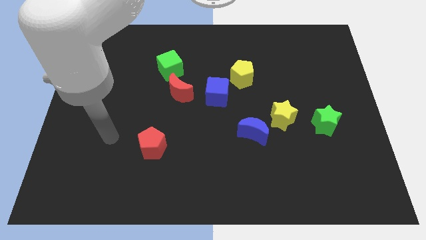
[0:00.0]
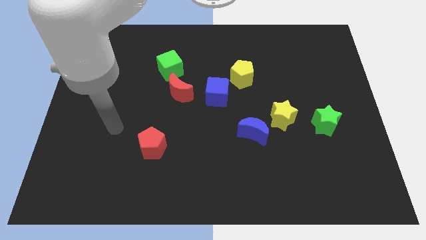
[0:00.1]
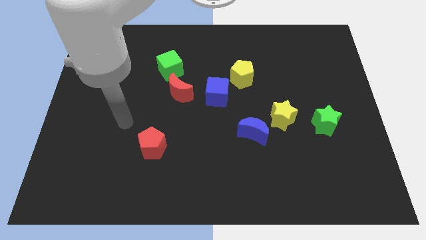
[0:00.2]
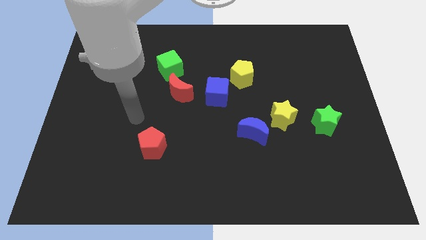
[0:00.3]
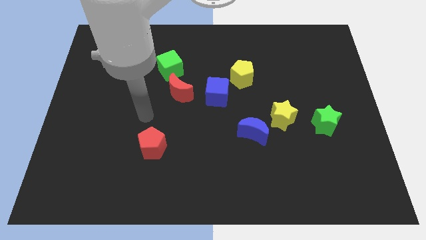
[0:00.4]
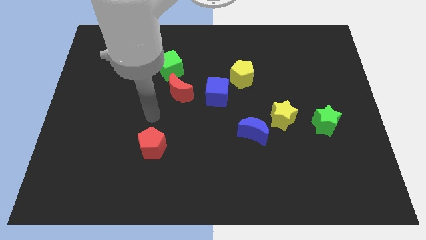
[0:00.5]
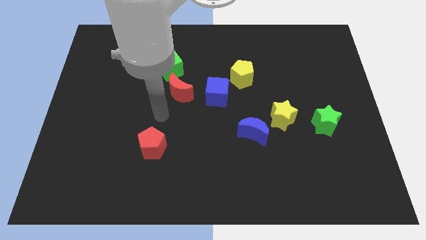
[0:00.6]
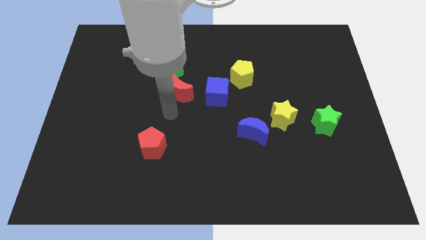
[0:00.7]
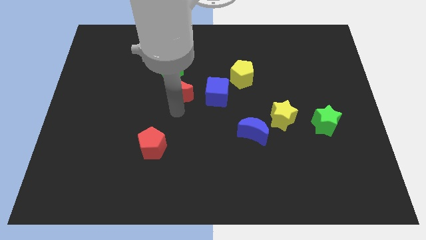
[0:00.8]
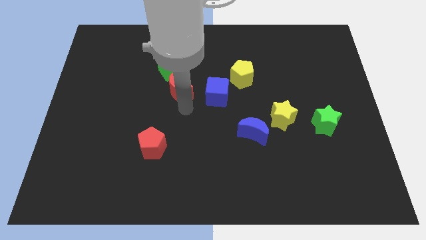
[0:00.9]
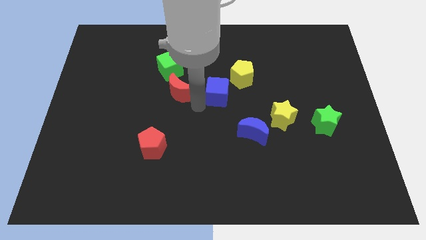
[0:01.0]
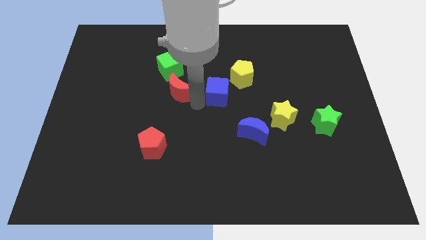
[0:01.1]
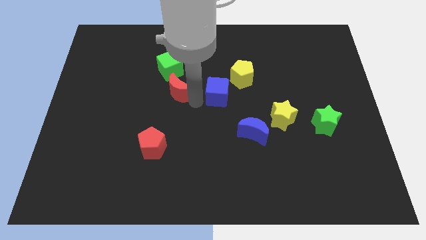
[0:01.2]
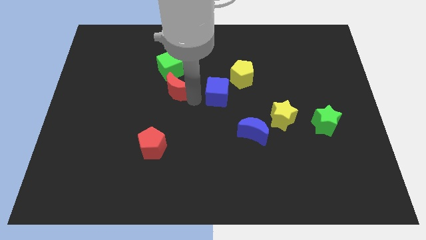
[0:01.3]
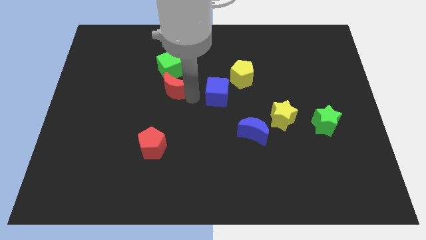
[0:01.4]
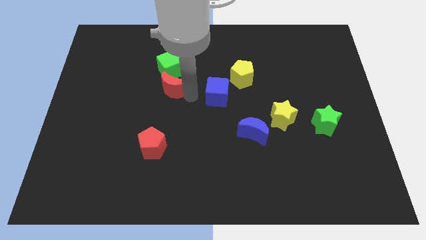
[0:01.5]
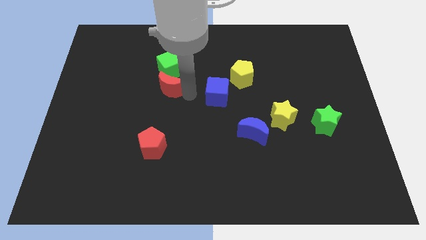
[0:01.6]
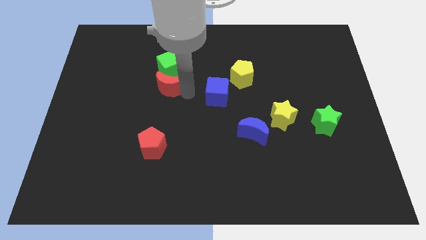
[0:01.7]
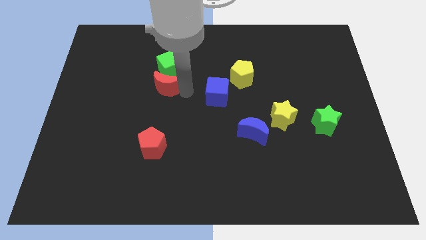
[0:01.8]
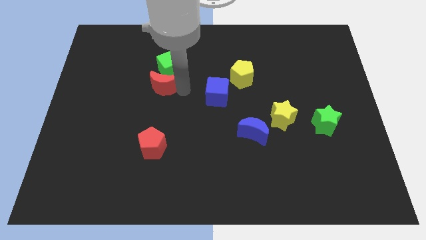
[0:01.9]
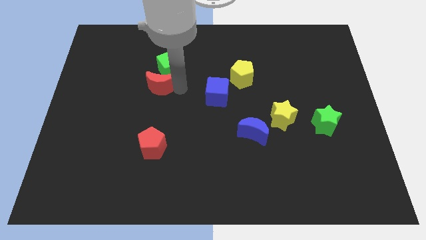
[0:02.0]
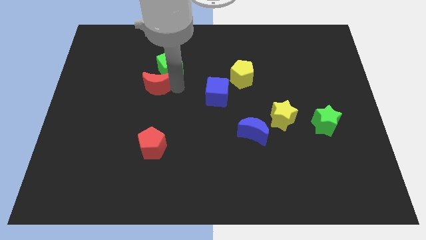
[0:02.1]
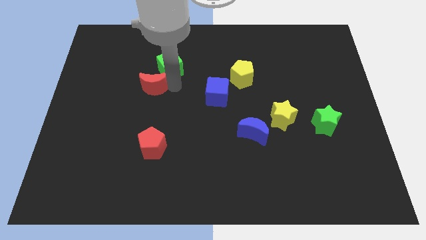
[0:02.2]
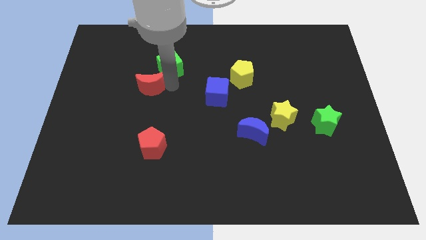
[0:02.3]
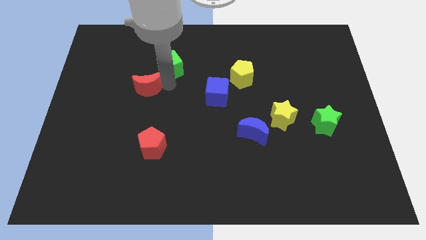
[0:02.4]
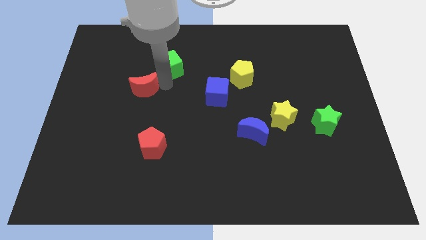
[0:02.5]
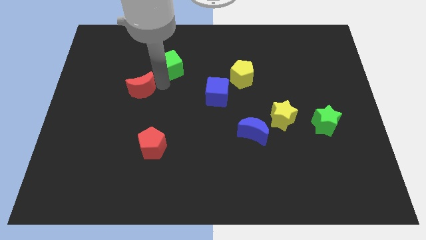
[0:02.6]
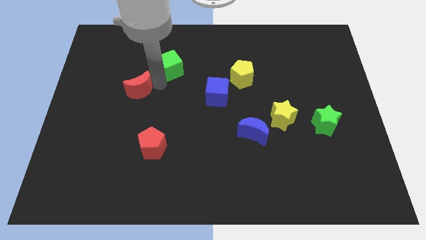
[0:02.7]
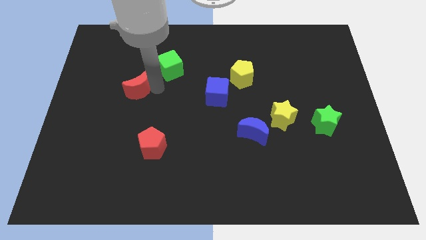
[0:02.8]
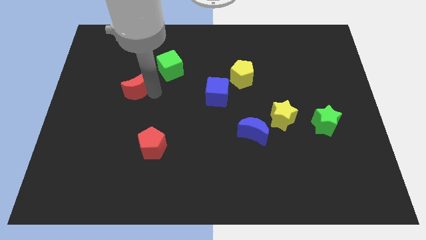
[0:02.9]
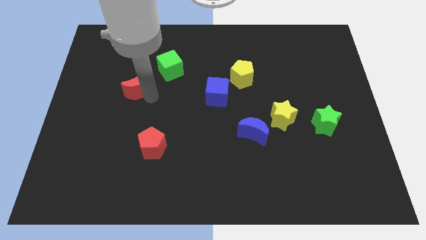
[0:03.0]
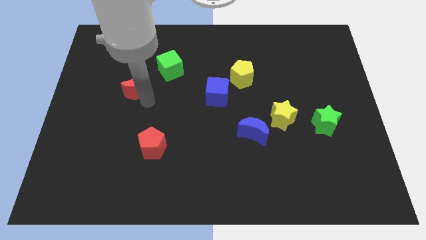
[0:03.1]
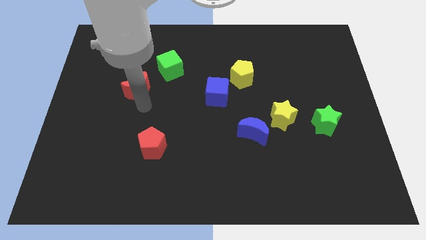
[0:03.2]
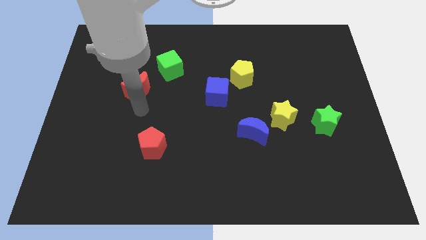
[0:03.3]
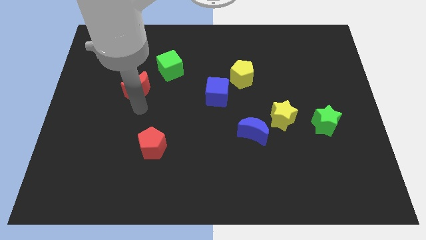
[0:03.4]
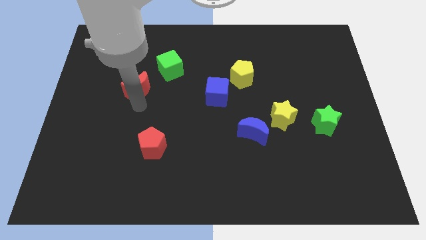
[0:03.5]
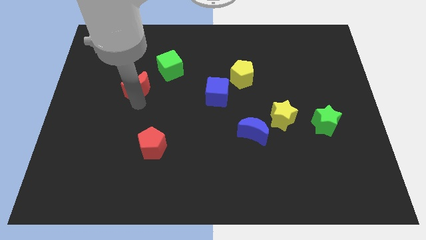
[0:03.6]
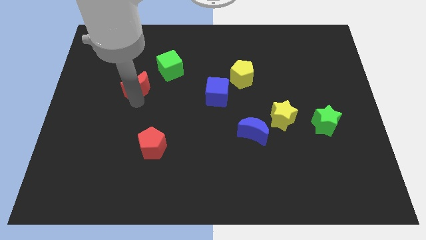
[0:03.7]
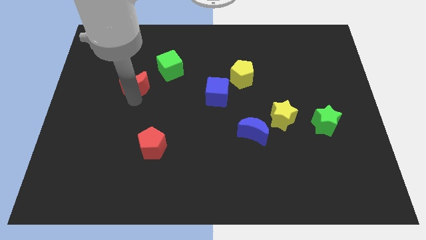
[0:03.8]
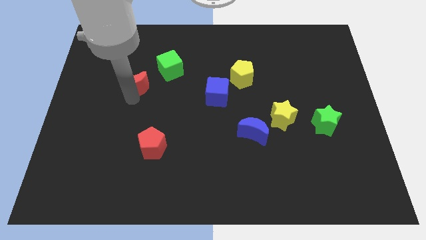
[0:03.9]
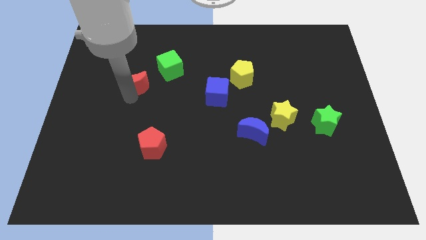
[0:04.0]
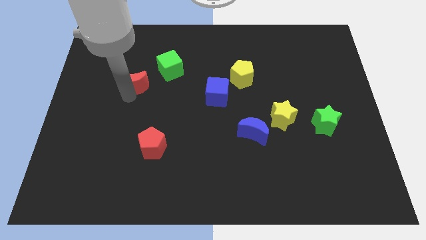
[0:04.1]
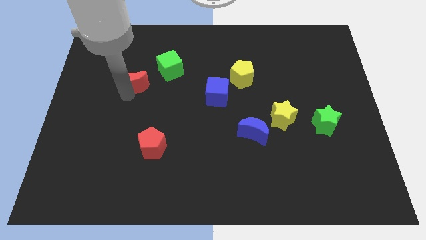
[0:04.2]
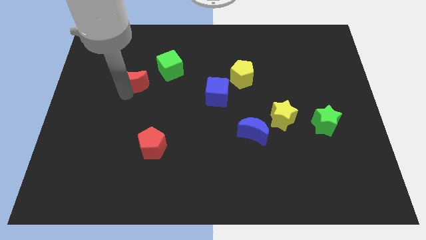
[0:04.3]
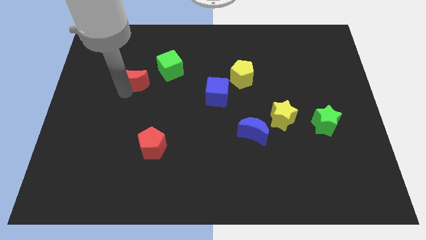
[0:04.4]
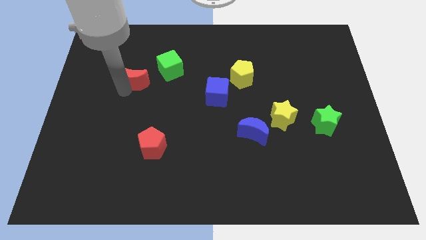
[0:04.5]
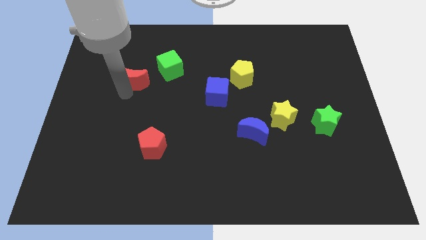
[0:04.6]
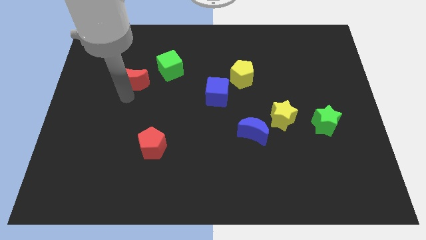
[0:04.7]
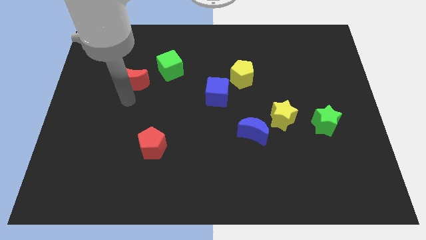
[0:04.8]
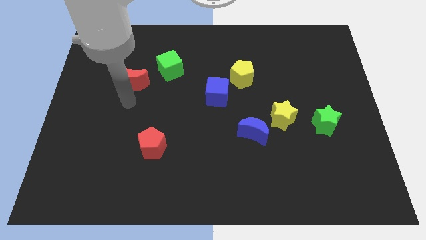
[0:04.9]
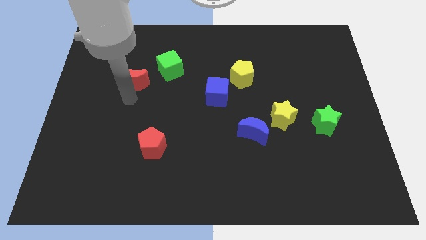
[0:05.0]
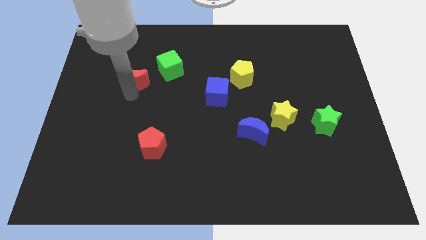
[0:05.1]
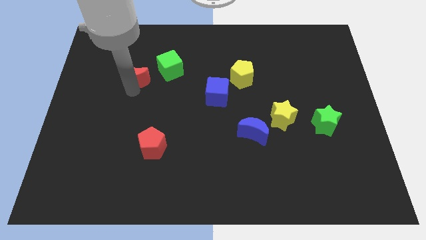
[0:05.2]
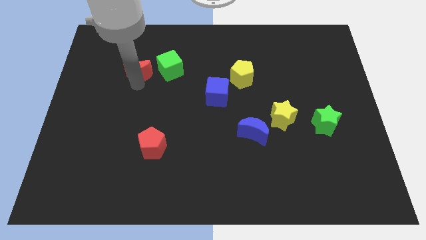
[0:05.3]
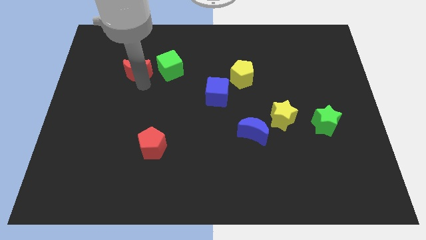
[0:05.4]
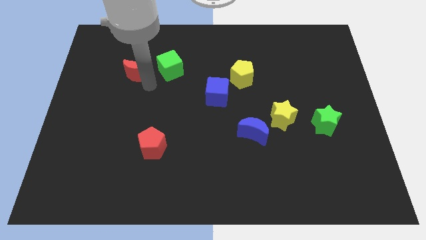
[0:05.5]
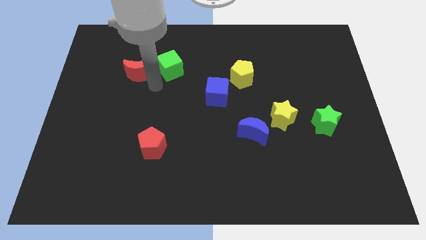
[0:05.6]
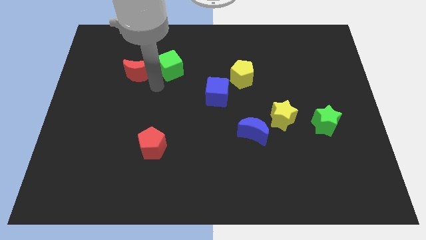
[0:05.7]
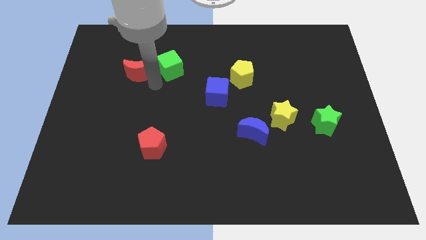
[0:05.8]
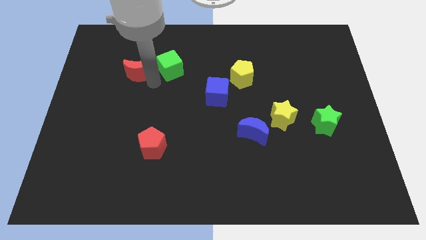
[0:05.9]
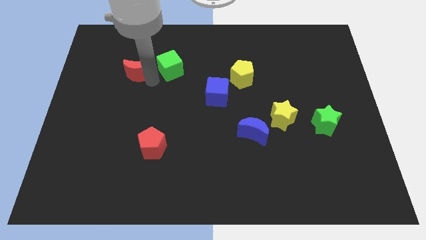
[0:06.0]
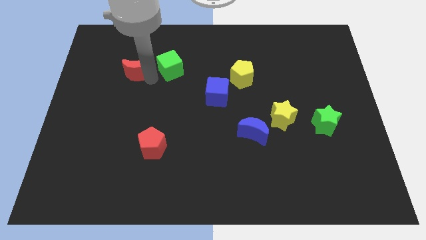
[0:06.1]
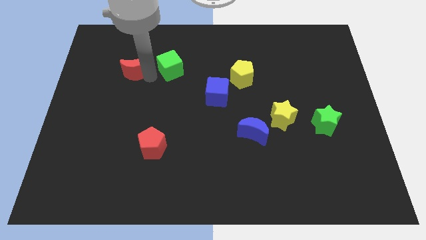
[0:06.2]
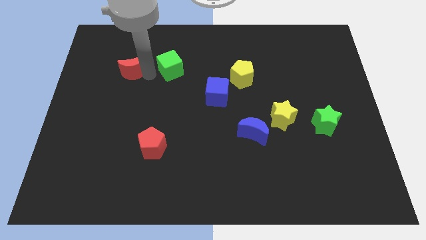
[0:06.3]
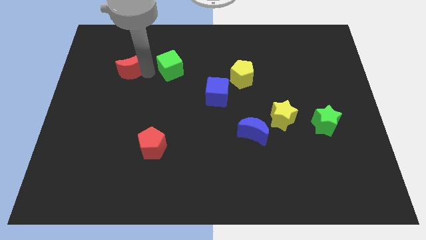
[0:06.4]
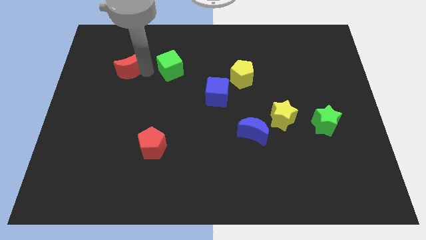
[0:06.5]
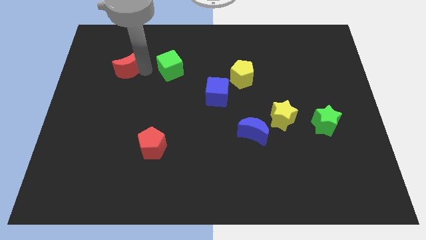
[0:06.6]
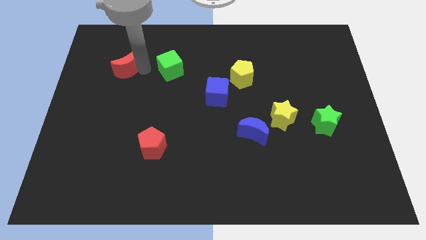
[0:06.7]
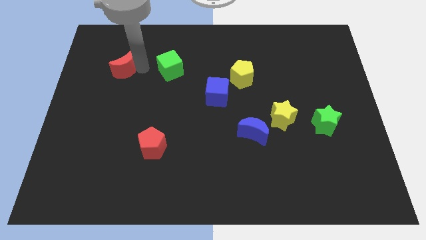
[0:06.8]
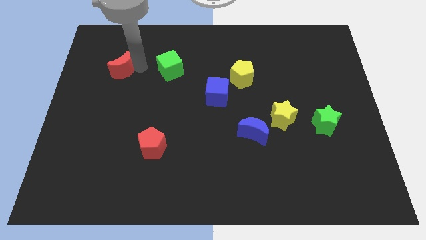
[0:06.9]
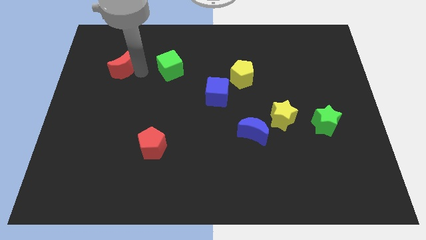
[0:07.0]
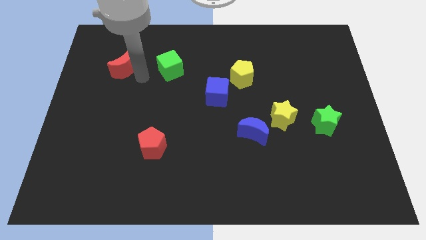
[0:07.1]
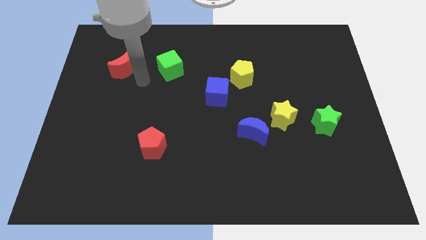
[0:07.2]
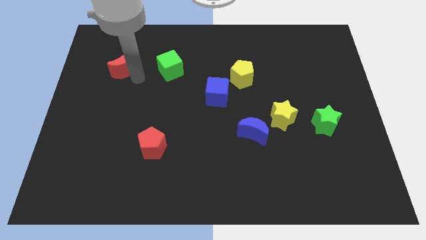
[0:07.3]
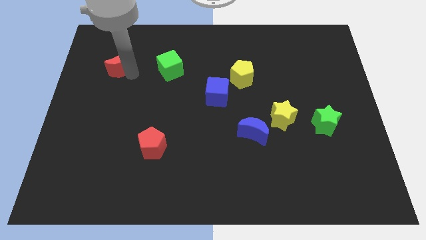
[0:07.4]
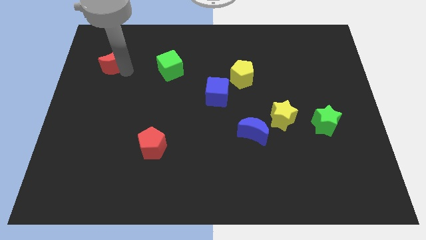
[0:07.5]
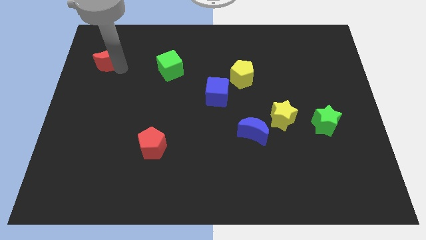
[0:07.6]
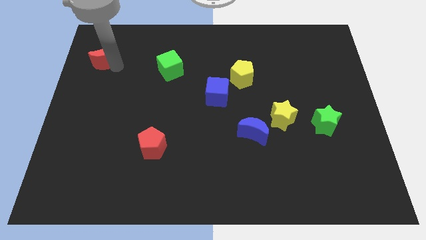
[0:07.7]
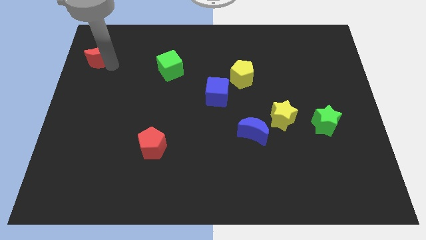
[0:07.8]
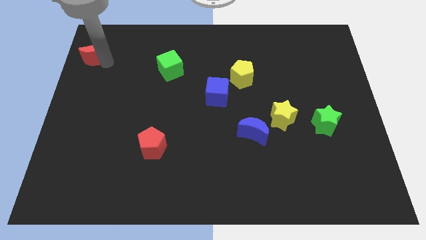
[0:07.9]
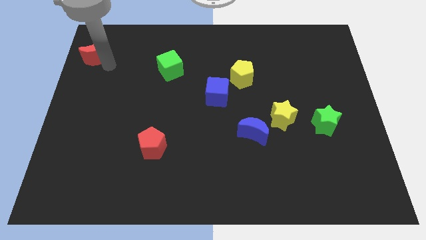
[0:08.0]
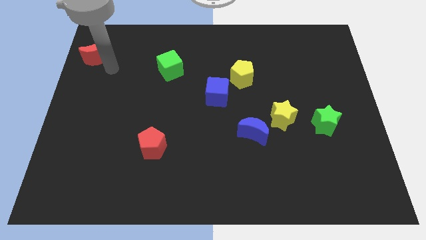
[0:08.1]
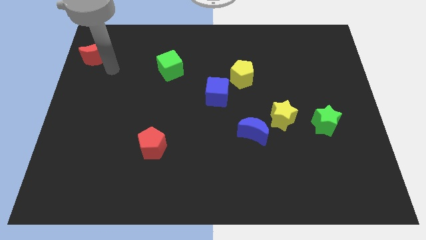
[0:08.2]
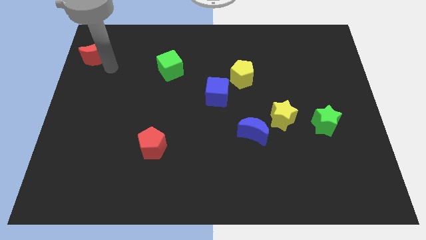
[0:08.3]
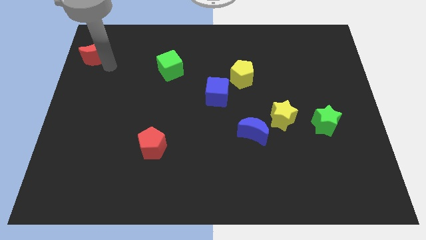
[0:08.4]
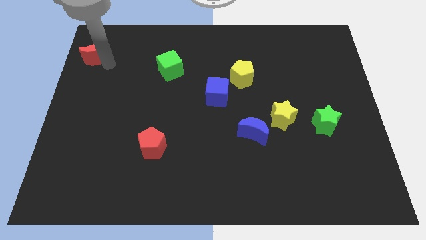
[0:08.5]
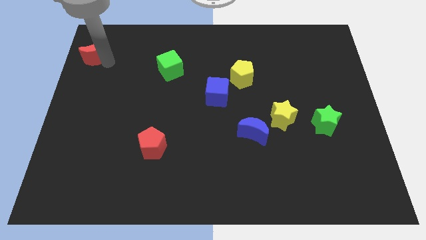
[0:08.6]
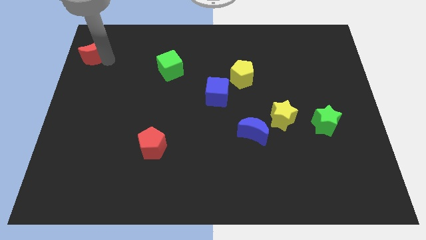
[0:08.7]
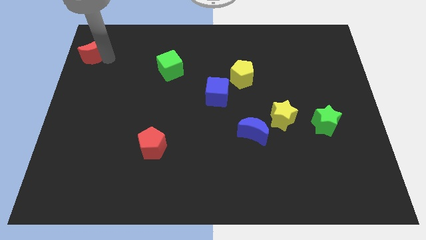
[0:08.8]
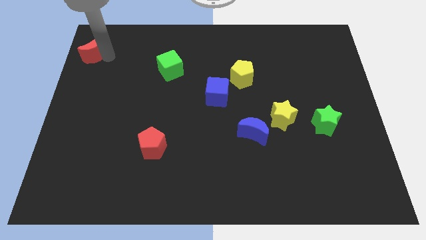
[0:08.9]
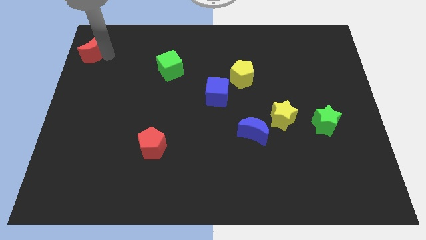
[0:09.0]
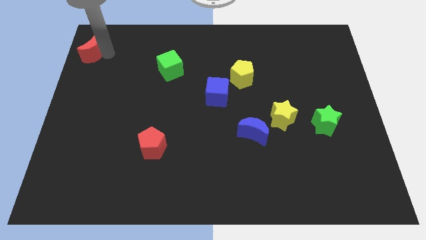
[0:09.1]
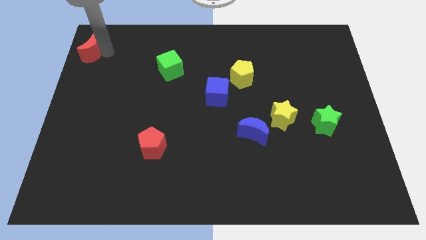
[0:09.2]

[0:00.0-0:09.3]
slide the red moon to the top left corner
